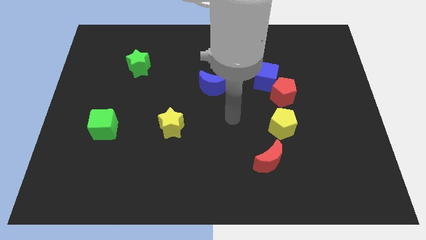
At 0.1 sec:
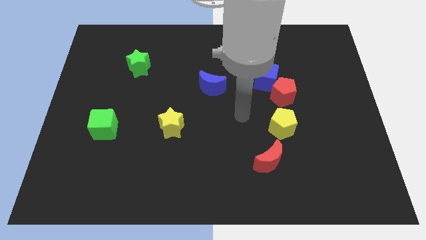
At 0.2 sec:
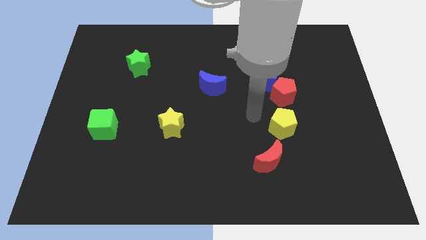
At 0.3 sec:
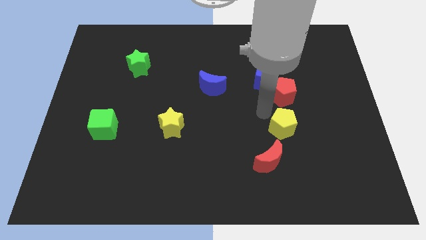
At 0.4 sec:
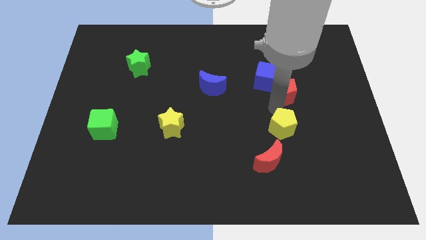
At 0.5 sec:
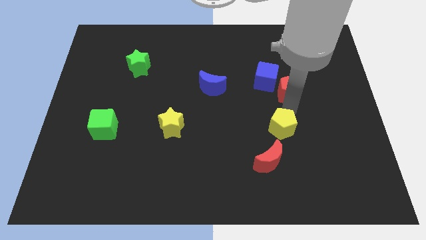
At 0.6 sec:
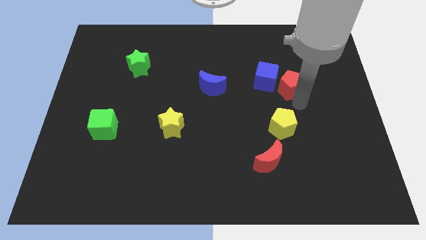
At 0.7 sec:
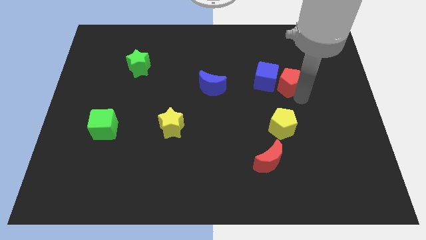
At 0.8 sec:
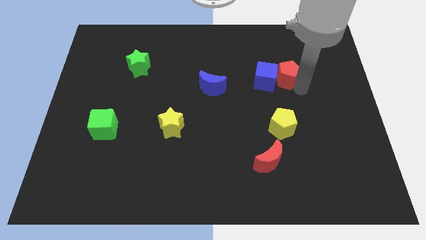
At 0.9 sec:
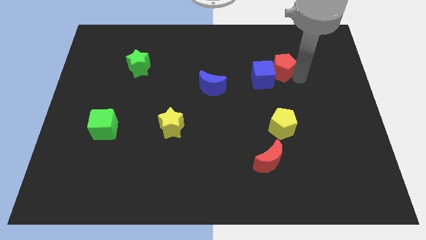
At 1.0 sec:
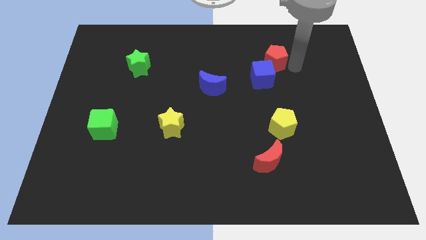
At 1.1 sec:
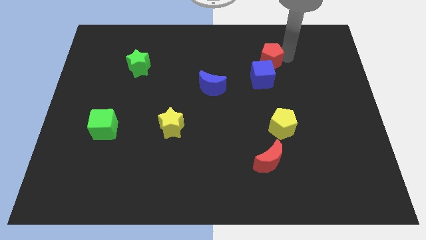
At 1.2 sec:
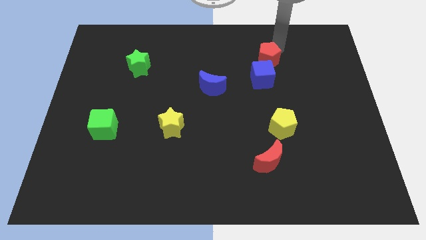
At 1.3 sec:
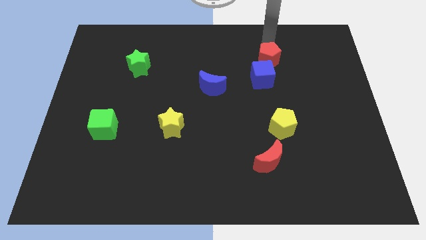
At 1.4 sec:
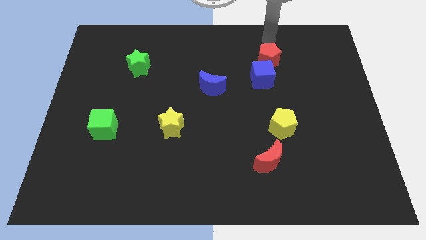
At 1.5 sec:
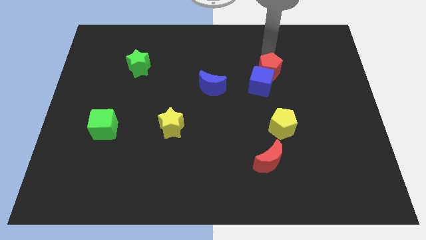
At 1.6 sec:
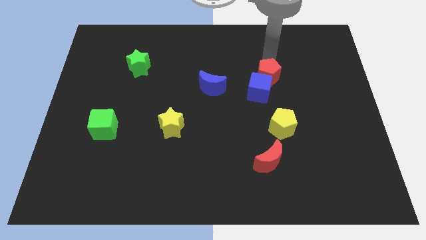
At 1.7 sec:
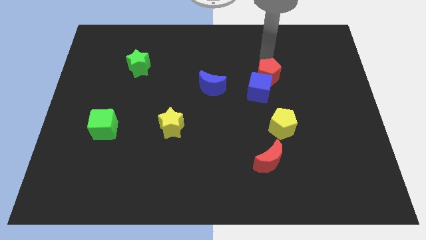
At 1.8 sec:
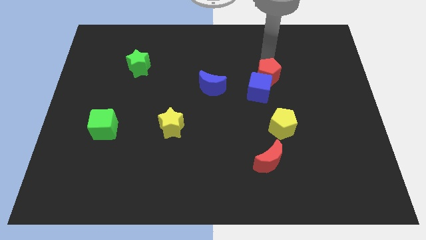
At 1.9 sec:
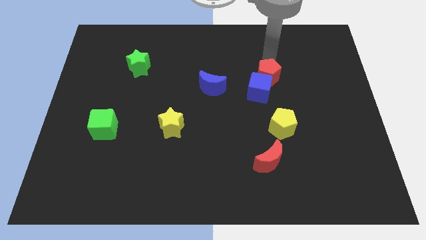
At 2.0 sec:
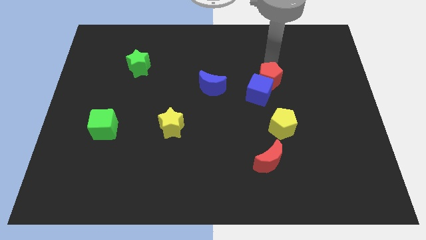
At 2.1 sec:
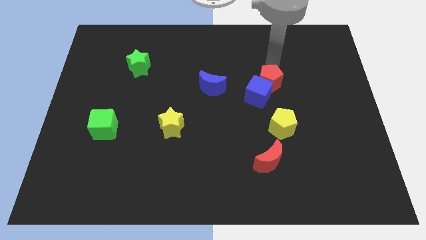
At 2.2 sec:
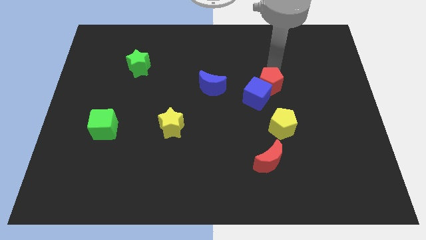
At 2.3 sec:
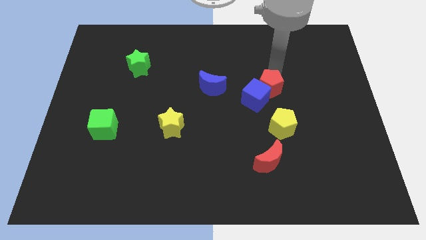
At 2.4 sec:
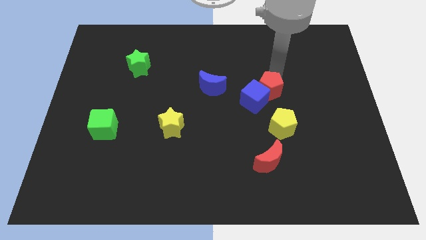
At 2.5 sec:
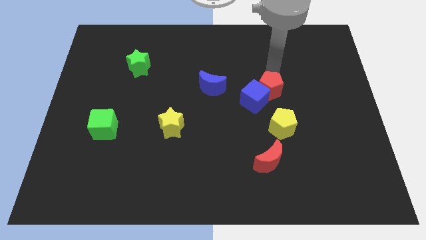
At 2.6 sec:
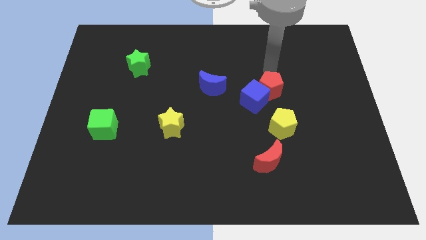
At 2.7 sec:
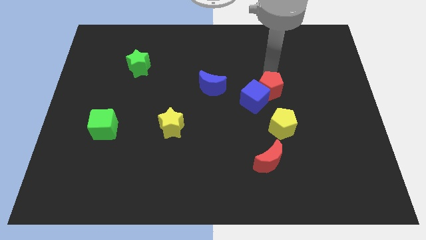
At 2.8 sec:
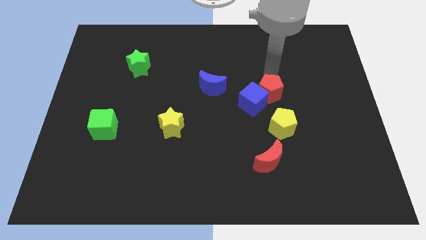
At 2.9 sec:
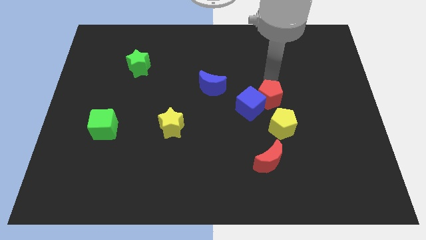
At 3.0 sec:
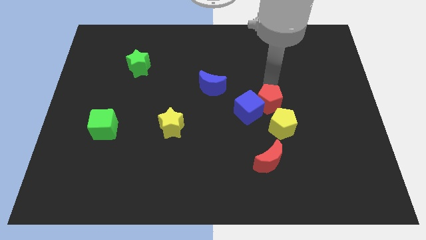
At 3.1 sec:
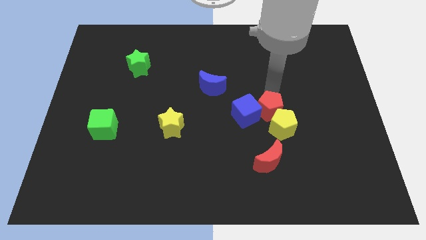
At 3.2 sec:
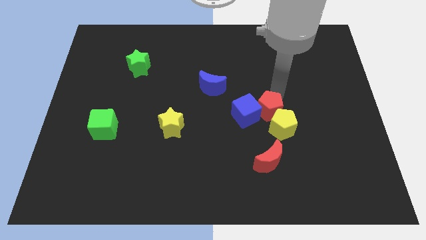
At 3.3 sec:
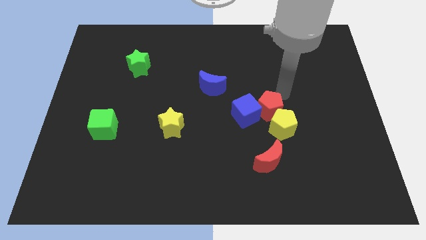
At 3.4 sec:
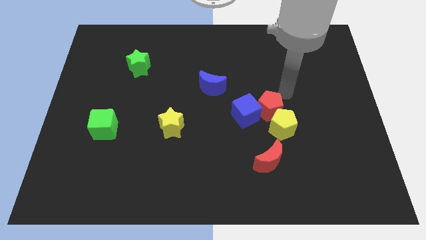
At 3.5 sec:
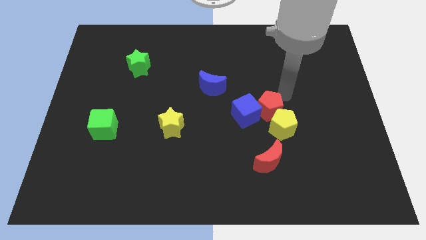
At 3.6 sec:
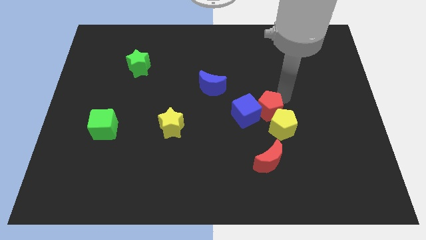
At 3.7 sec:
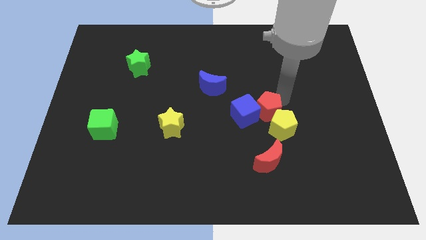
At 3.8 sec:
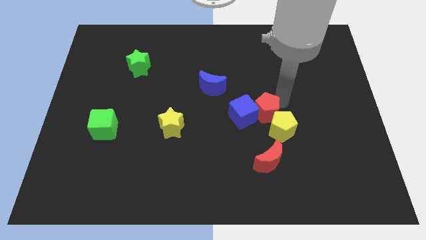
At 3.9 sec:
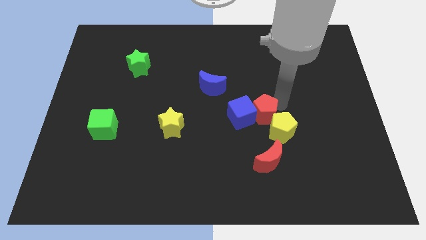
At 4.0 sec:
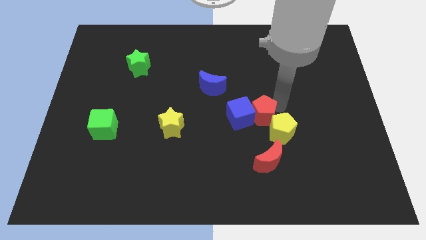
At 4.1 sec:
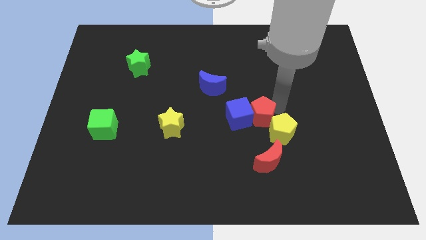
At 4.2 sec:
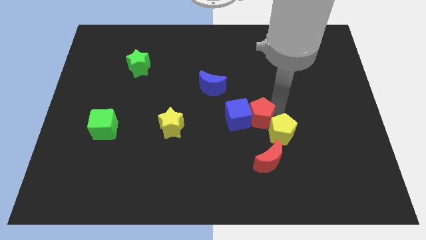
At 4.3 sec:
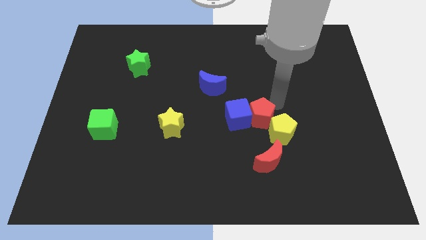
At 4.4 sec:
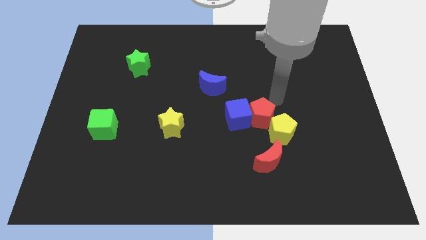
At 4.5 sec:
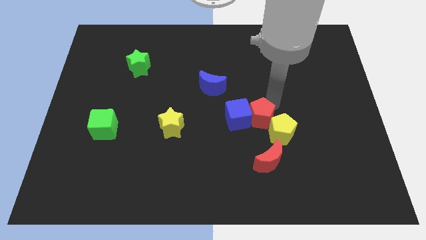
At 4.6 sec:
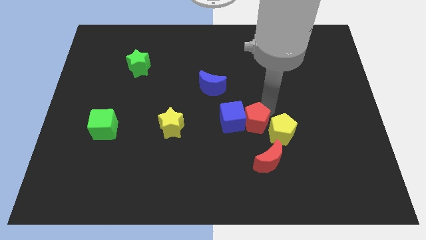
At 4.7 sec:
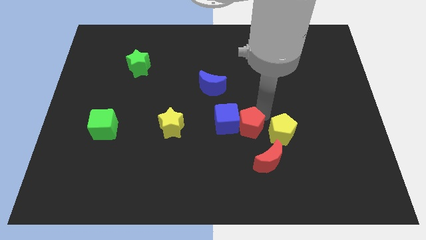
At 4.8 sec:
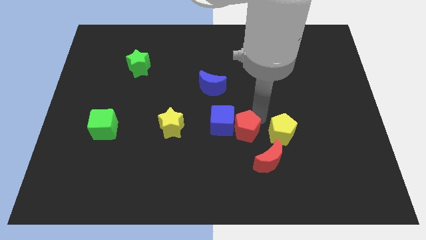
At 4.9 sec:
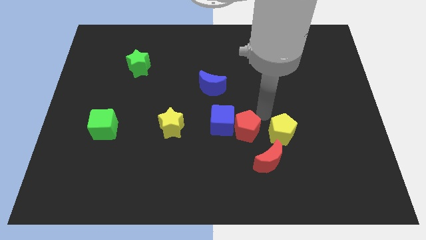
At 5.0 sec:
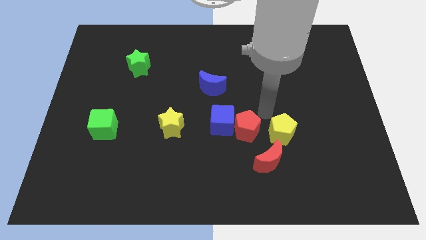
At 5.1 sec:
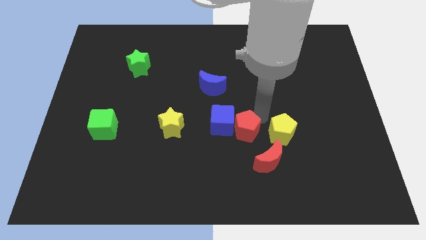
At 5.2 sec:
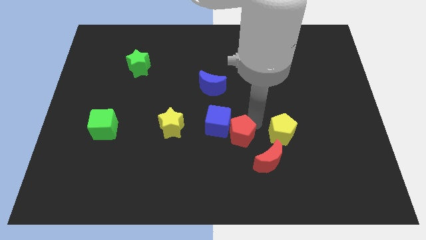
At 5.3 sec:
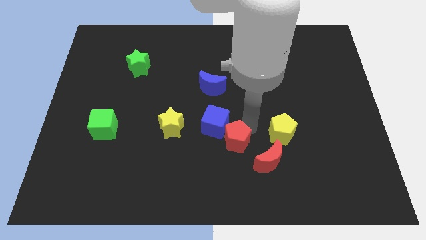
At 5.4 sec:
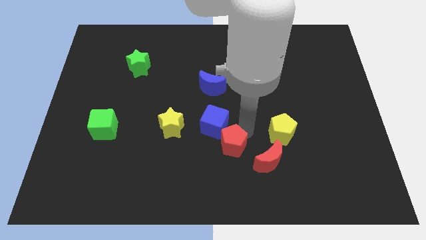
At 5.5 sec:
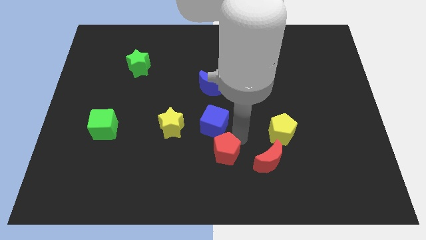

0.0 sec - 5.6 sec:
move the red pentagon downwards and to the left diagonally

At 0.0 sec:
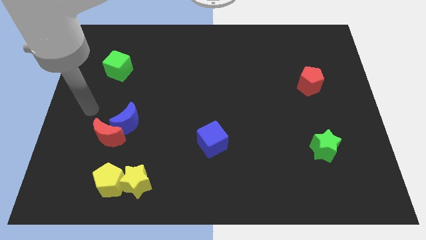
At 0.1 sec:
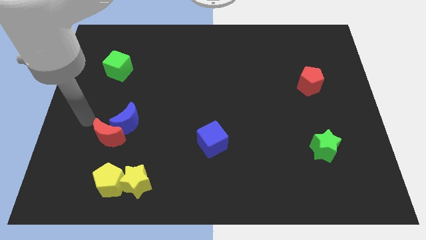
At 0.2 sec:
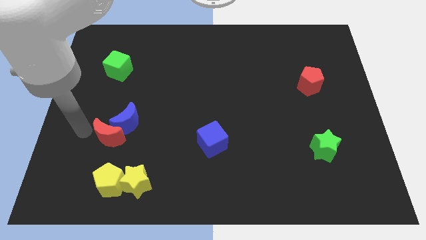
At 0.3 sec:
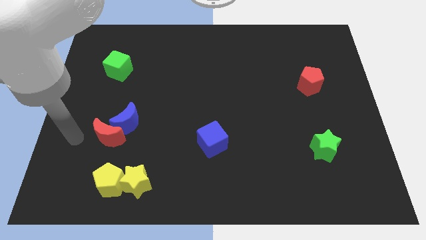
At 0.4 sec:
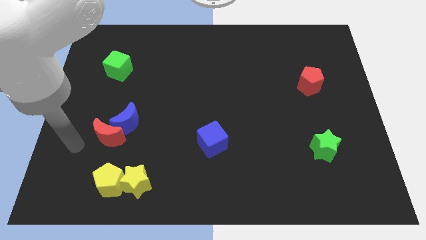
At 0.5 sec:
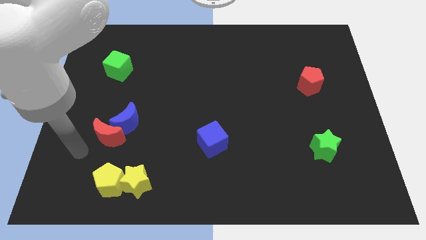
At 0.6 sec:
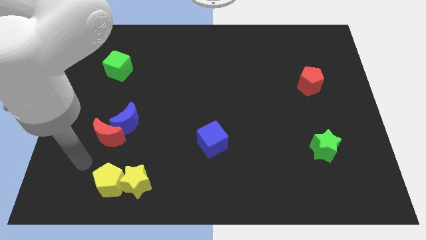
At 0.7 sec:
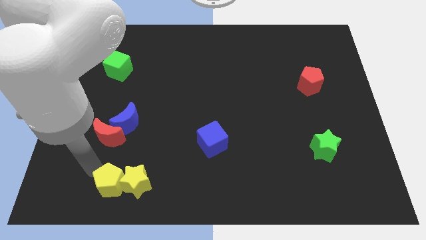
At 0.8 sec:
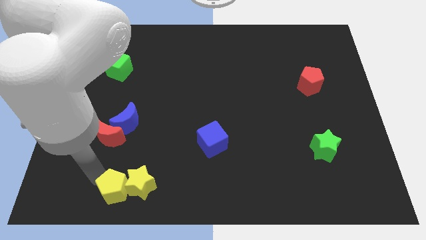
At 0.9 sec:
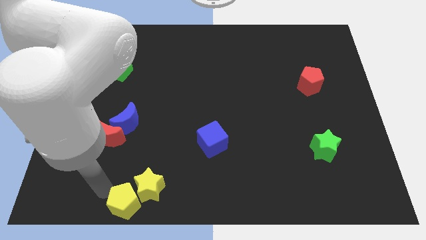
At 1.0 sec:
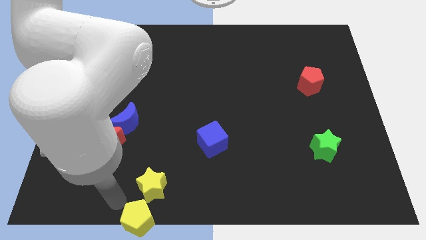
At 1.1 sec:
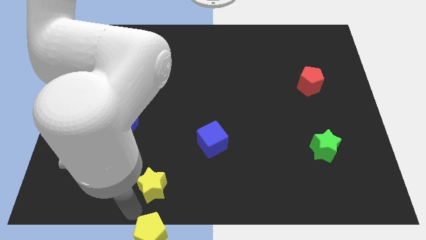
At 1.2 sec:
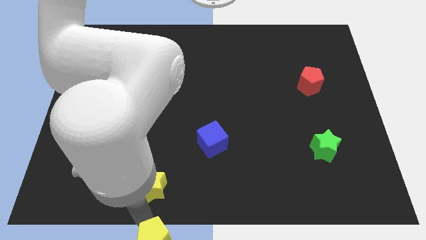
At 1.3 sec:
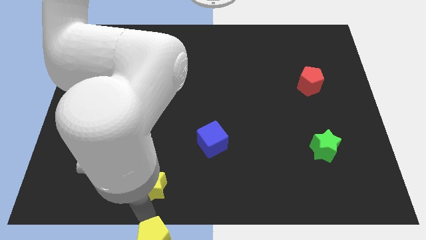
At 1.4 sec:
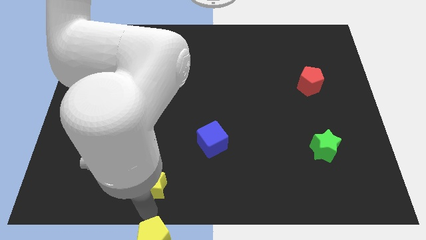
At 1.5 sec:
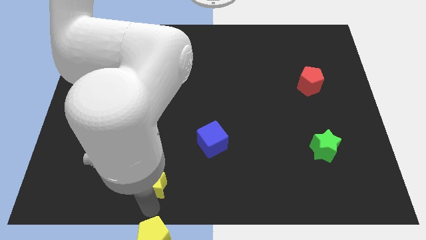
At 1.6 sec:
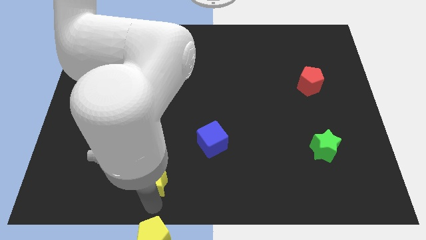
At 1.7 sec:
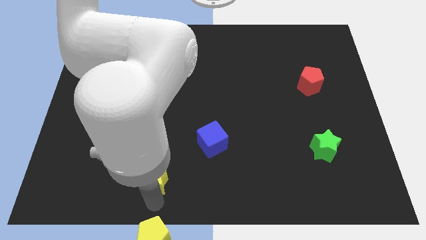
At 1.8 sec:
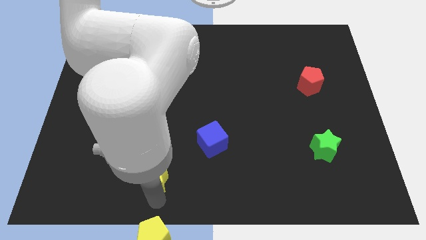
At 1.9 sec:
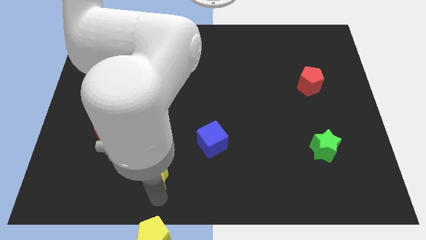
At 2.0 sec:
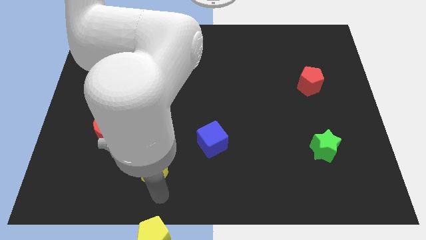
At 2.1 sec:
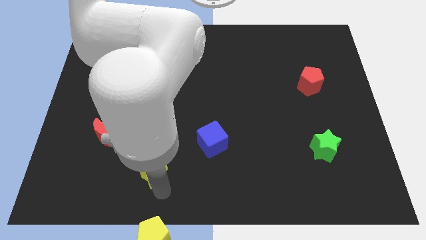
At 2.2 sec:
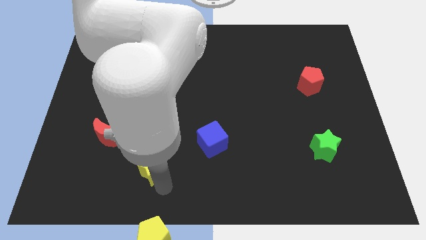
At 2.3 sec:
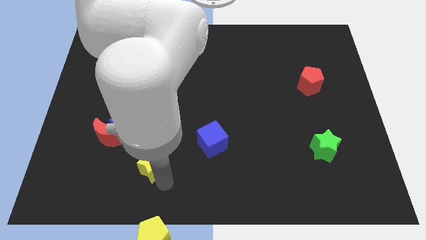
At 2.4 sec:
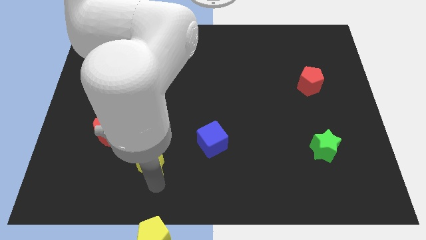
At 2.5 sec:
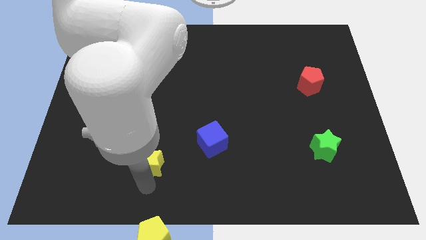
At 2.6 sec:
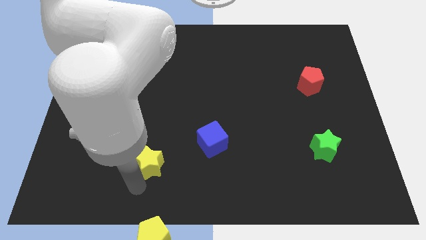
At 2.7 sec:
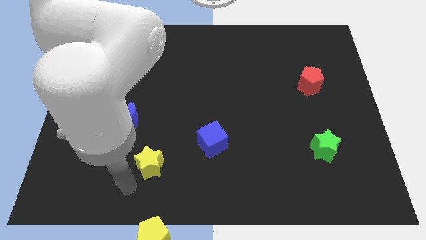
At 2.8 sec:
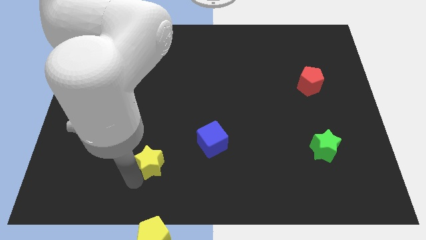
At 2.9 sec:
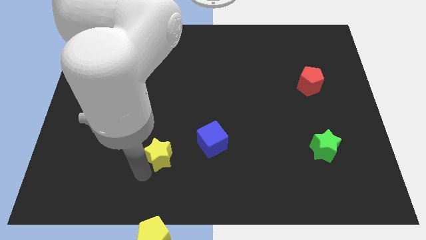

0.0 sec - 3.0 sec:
push the yellow star a little upwards and to the right
